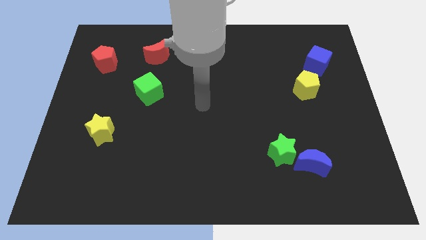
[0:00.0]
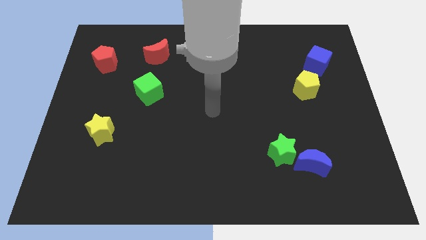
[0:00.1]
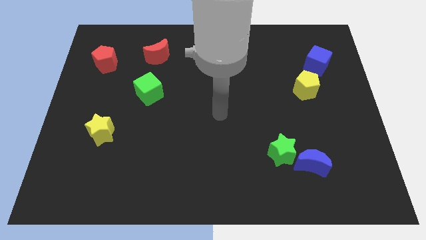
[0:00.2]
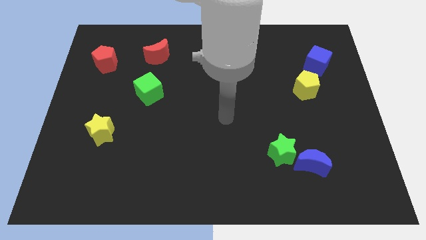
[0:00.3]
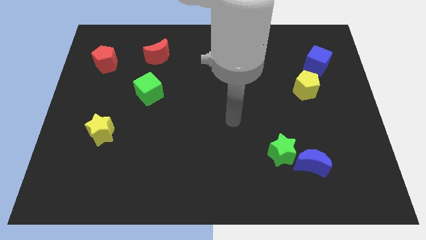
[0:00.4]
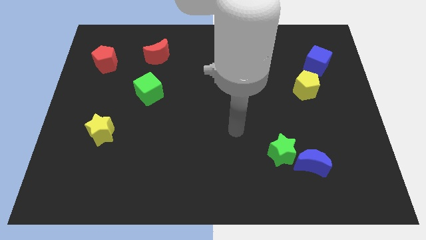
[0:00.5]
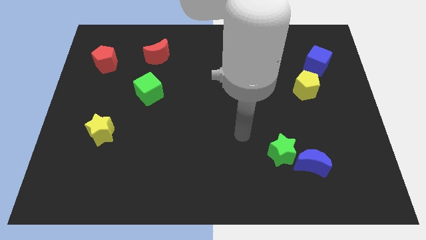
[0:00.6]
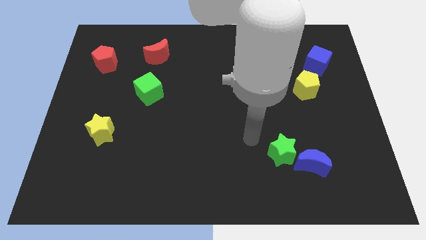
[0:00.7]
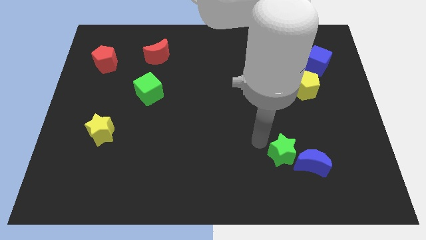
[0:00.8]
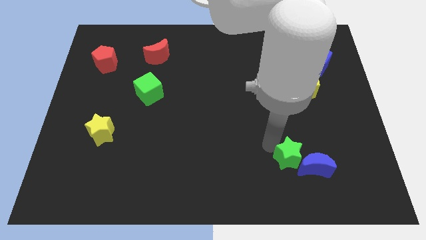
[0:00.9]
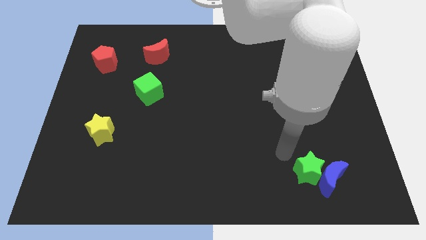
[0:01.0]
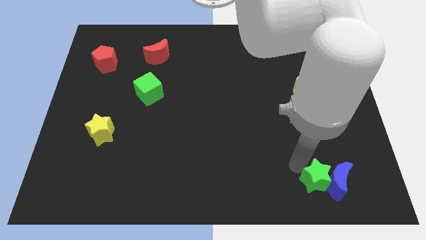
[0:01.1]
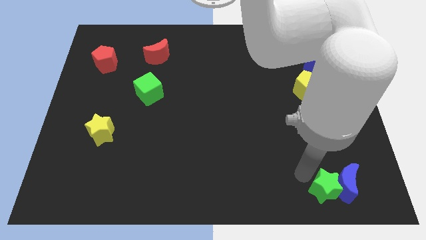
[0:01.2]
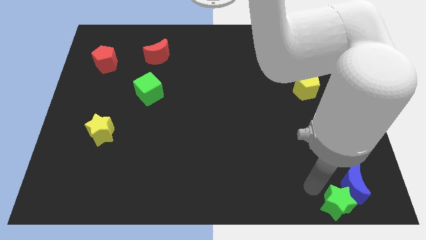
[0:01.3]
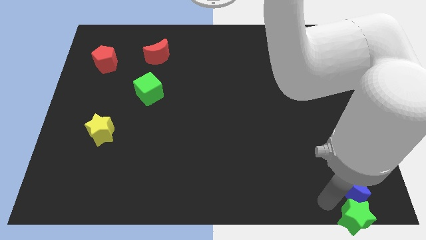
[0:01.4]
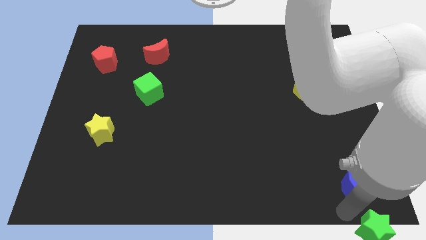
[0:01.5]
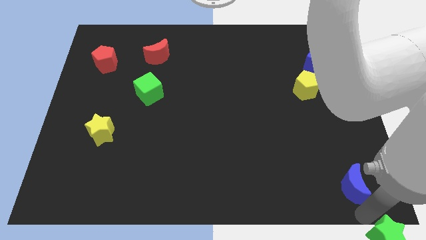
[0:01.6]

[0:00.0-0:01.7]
separate the blue moon from the green star

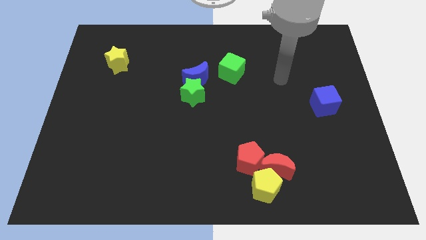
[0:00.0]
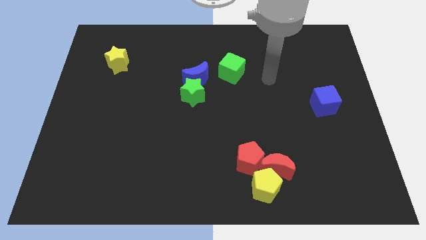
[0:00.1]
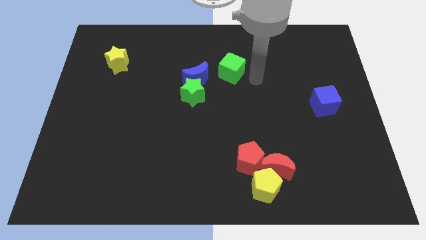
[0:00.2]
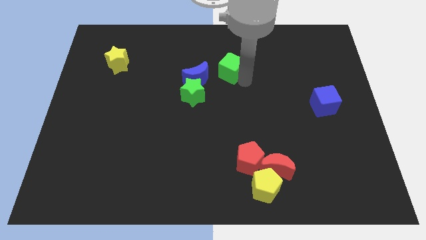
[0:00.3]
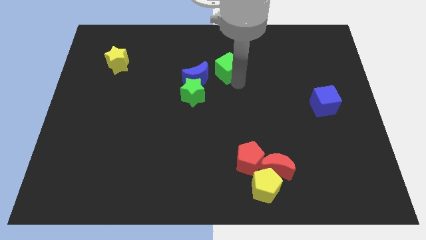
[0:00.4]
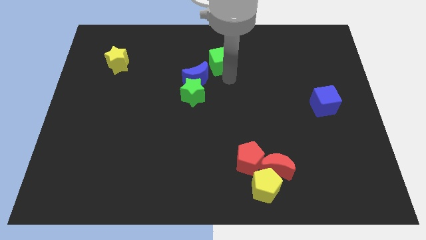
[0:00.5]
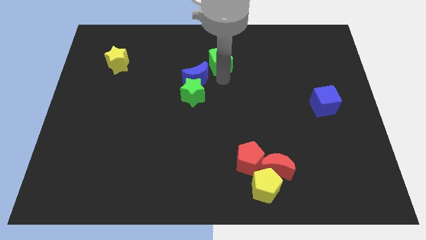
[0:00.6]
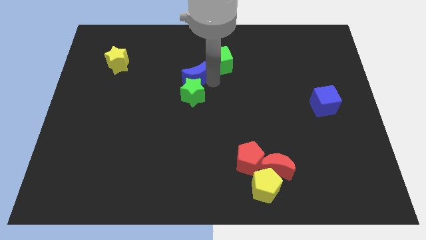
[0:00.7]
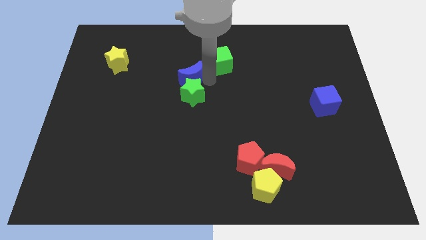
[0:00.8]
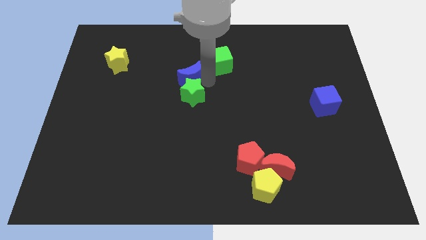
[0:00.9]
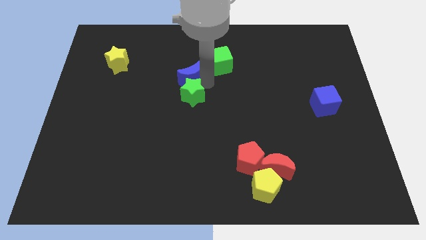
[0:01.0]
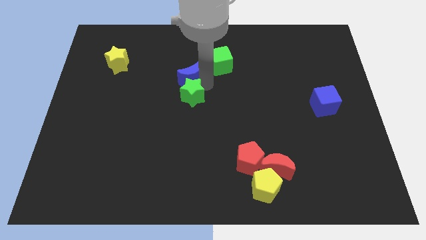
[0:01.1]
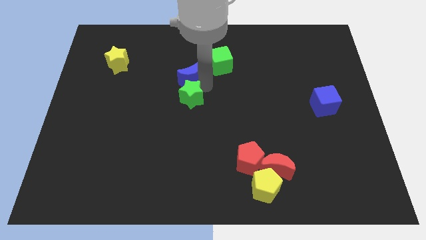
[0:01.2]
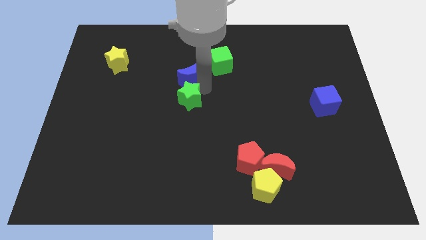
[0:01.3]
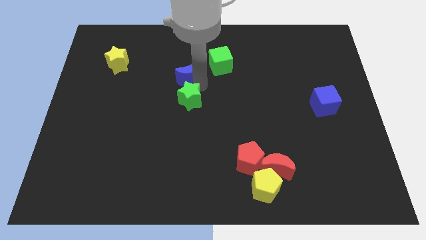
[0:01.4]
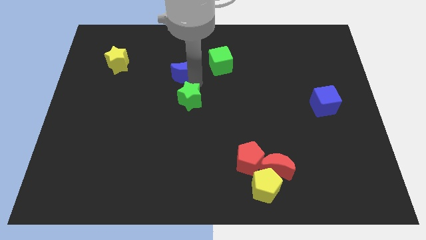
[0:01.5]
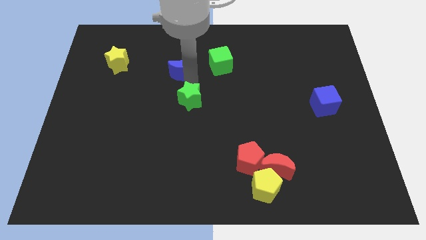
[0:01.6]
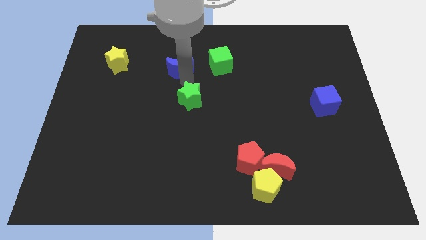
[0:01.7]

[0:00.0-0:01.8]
separate the green star from the blue moon

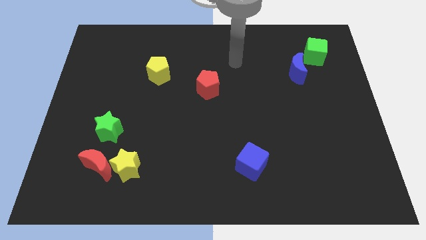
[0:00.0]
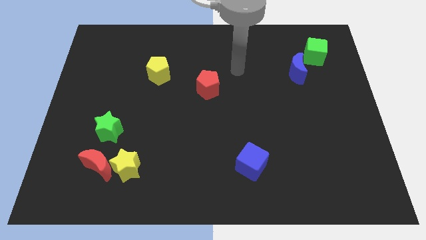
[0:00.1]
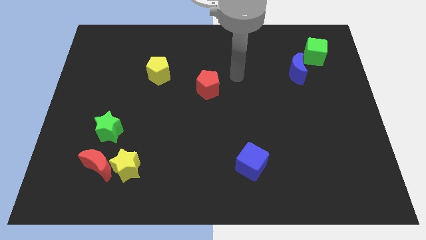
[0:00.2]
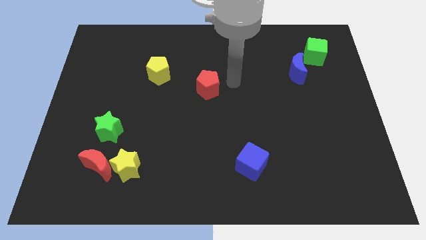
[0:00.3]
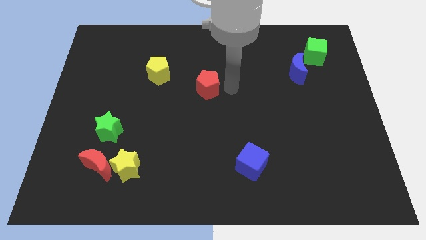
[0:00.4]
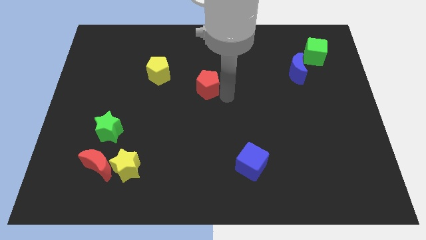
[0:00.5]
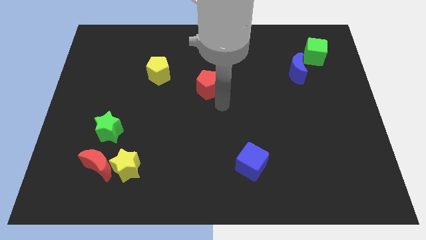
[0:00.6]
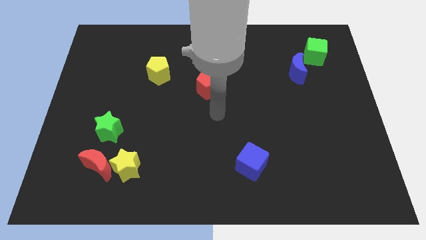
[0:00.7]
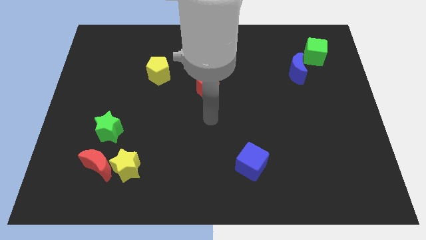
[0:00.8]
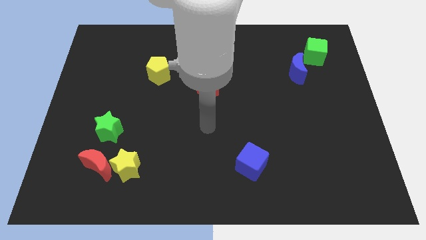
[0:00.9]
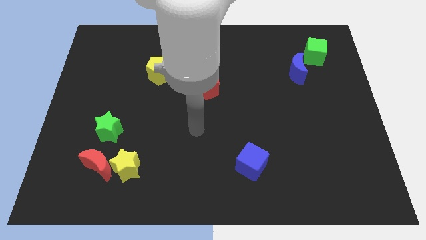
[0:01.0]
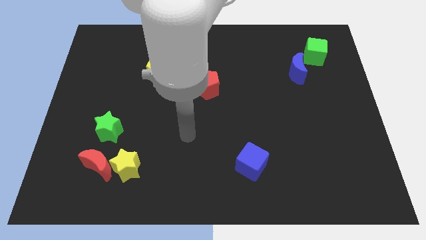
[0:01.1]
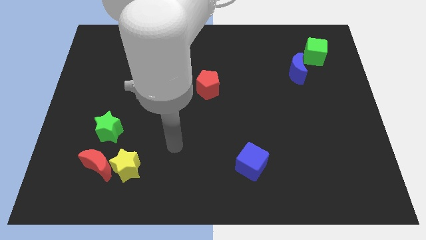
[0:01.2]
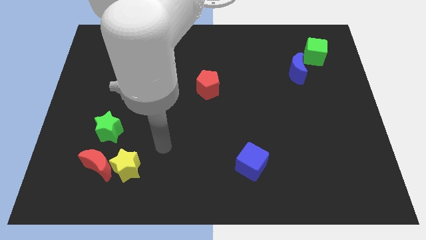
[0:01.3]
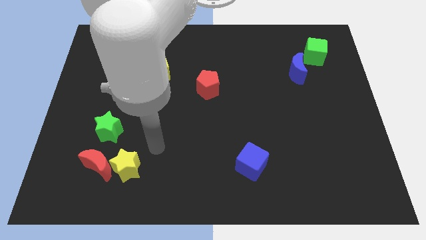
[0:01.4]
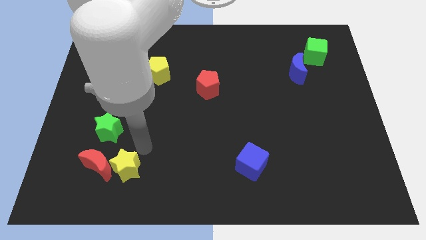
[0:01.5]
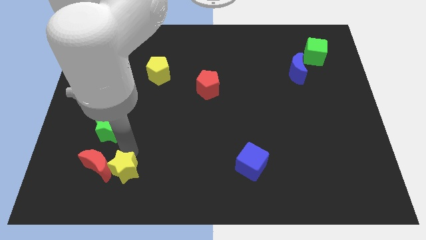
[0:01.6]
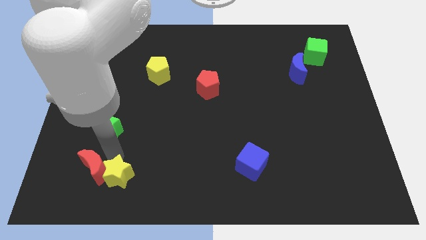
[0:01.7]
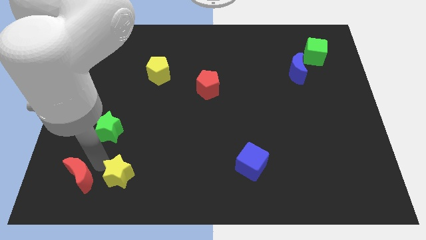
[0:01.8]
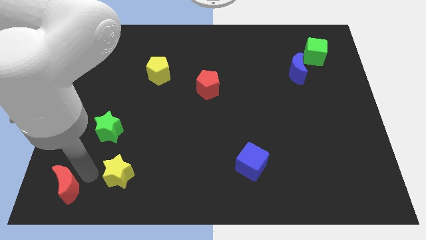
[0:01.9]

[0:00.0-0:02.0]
separate the yellow star from the red moon

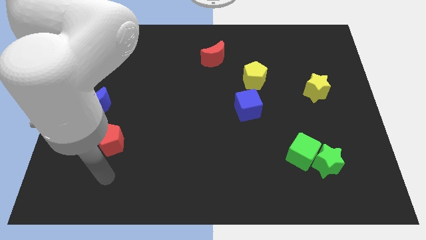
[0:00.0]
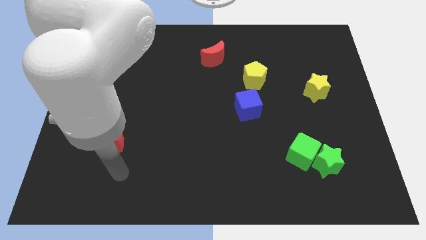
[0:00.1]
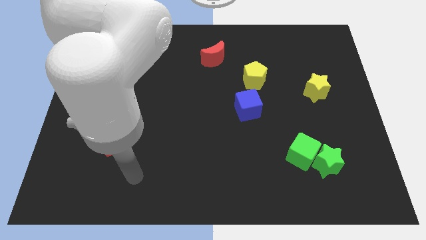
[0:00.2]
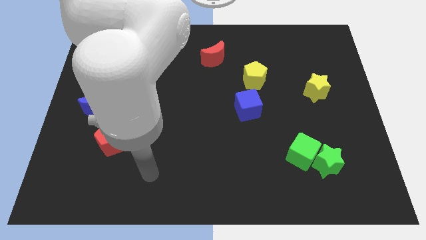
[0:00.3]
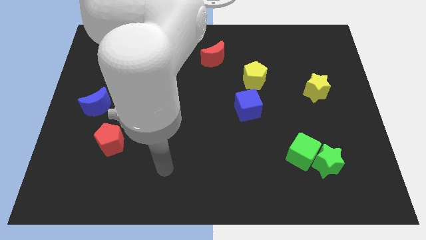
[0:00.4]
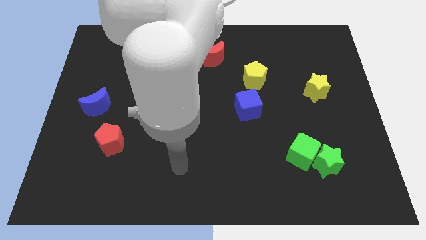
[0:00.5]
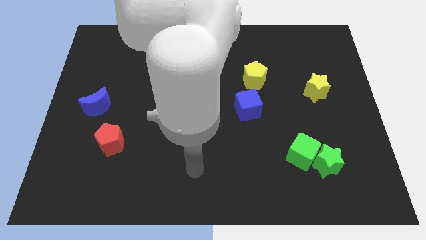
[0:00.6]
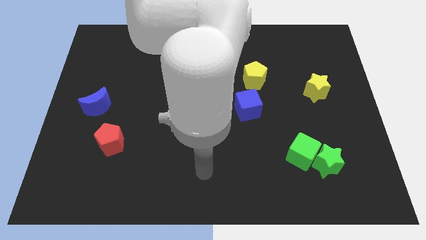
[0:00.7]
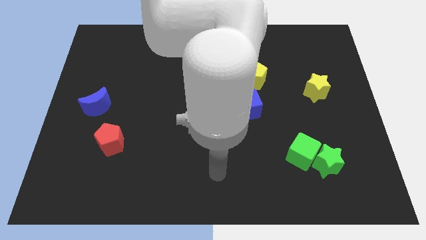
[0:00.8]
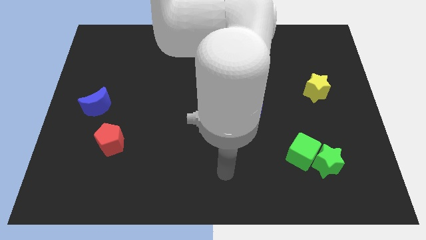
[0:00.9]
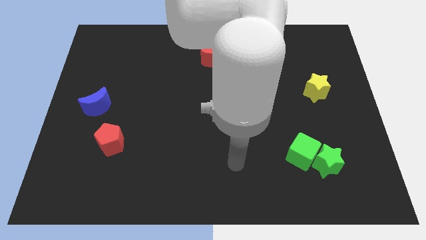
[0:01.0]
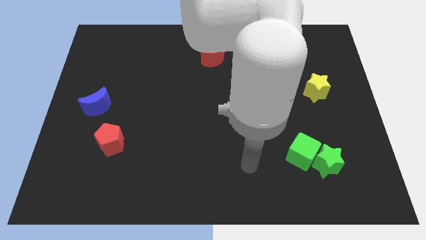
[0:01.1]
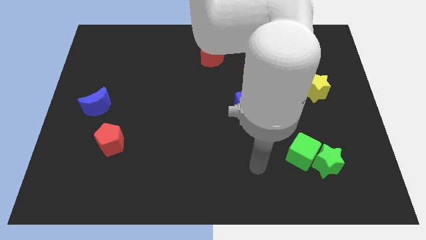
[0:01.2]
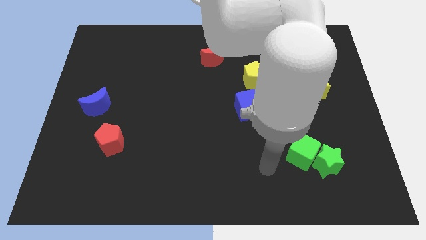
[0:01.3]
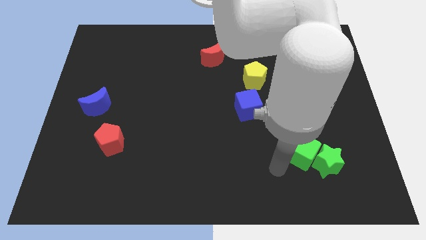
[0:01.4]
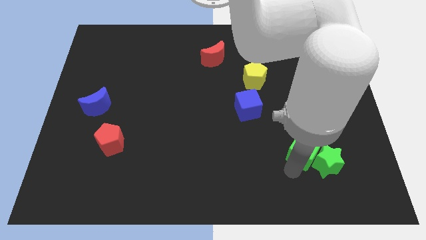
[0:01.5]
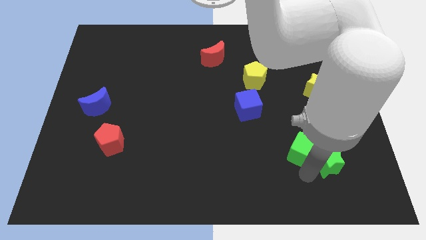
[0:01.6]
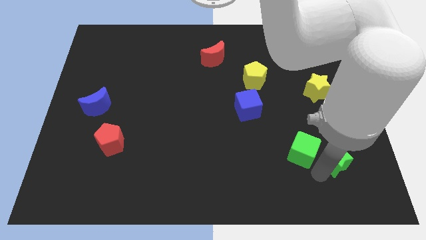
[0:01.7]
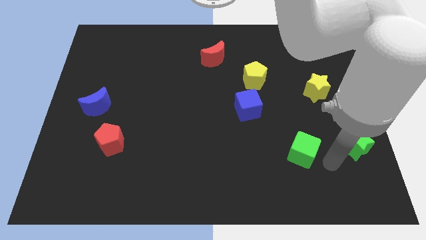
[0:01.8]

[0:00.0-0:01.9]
move the green cube away from the green star

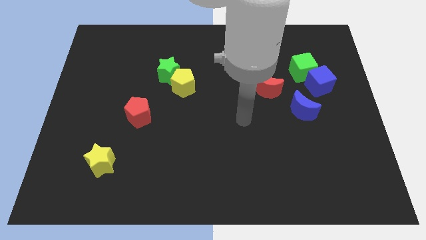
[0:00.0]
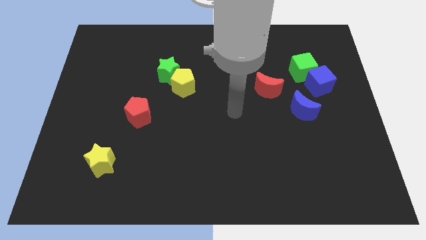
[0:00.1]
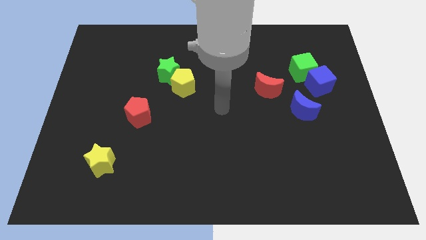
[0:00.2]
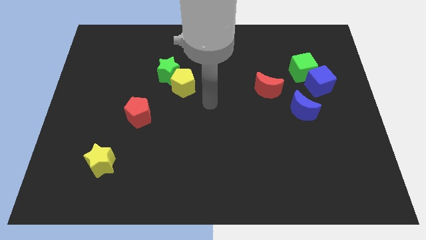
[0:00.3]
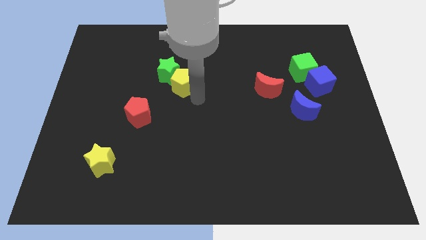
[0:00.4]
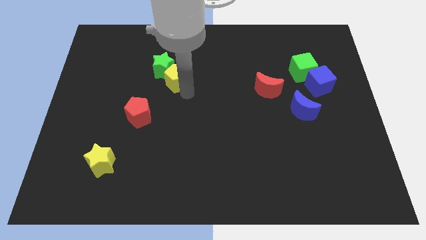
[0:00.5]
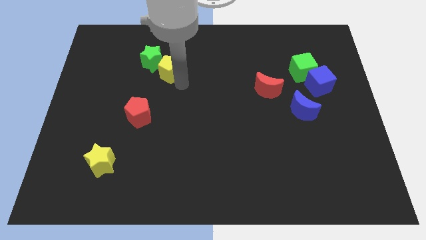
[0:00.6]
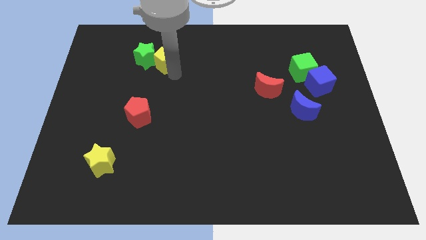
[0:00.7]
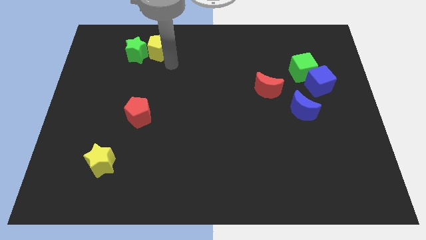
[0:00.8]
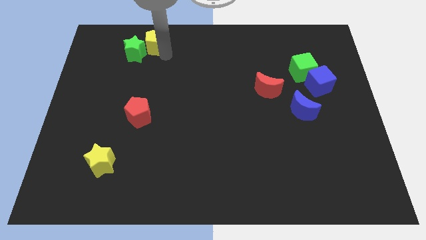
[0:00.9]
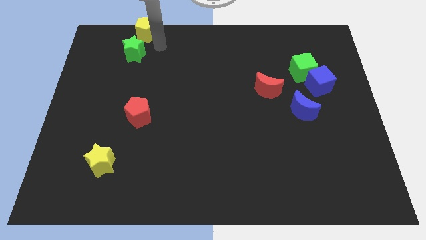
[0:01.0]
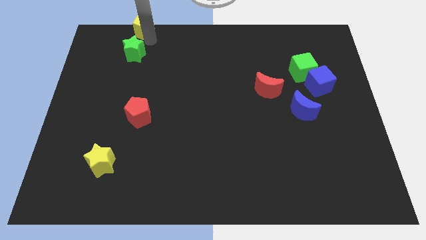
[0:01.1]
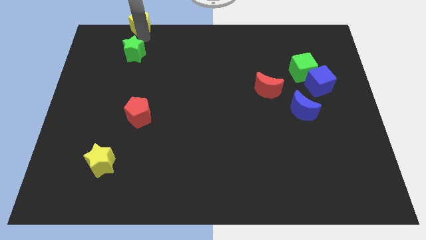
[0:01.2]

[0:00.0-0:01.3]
move the green star away from the yellow pentagon

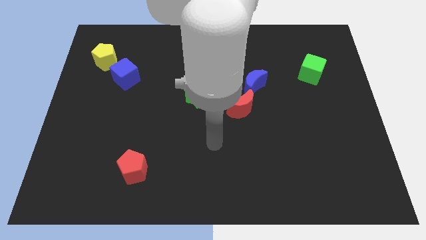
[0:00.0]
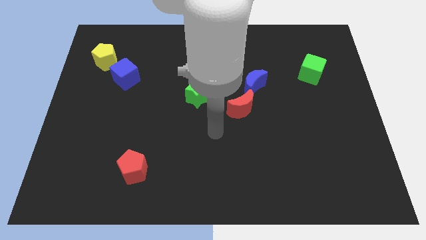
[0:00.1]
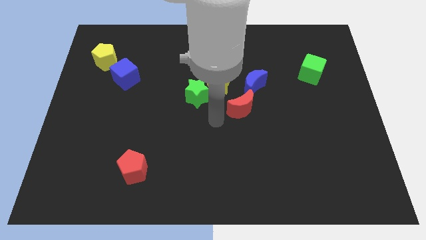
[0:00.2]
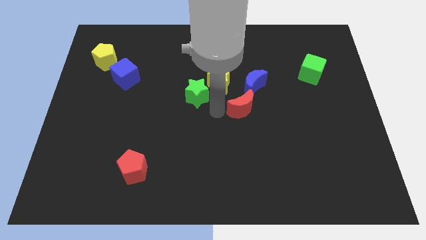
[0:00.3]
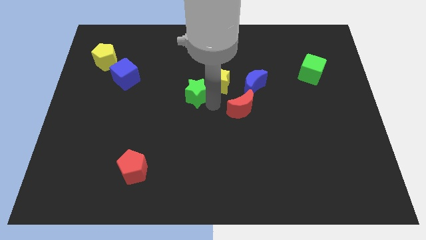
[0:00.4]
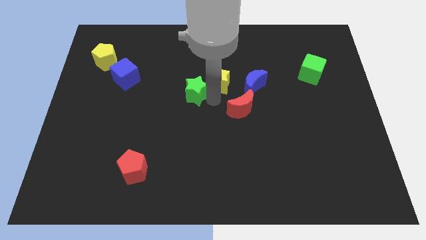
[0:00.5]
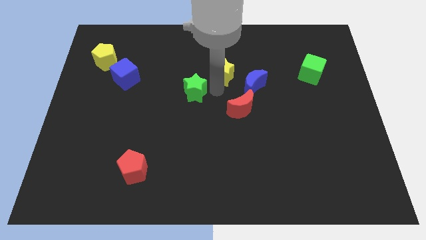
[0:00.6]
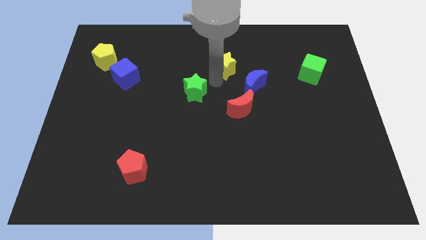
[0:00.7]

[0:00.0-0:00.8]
move the green star away from the yellow star
